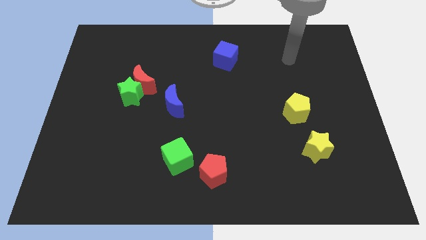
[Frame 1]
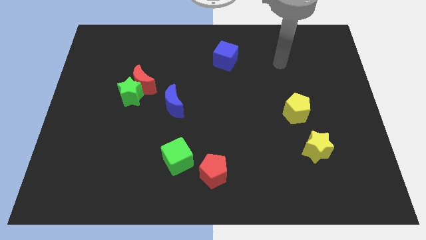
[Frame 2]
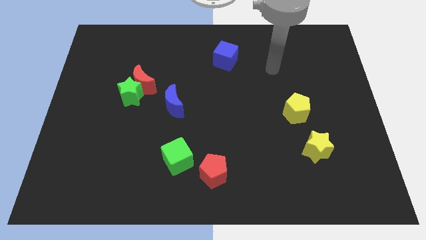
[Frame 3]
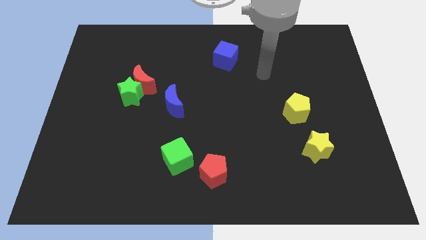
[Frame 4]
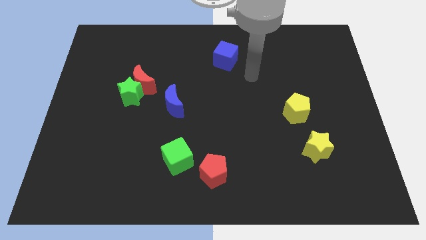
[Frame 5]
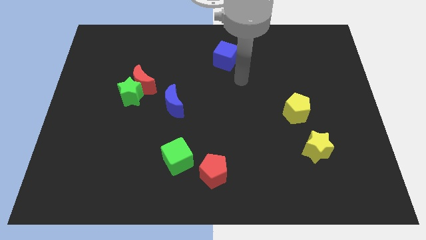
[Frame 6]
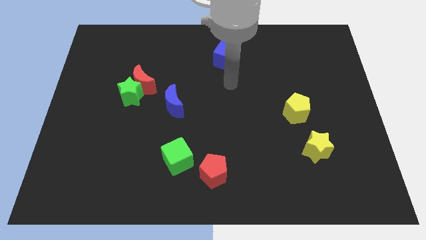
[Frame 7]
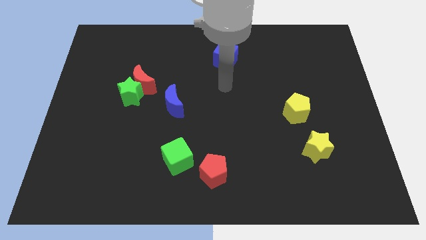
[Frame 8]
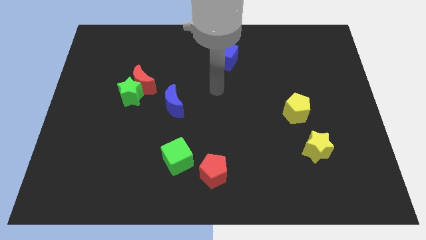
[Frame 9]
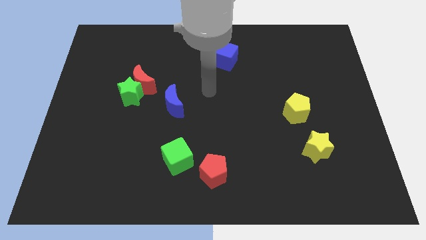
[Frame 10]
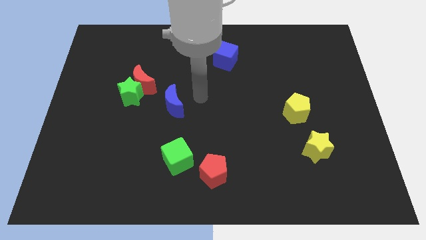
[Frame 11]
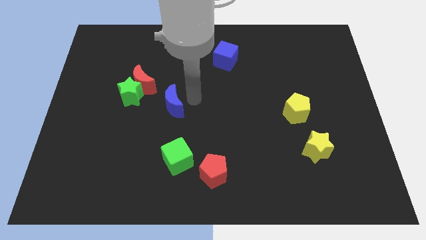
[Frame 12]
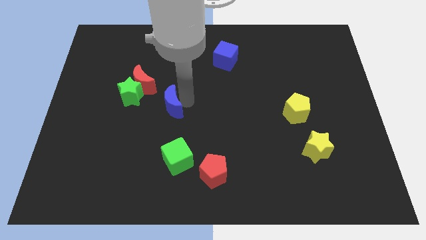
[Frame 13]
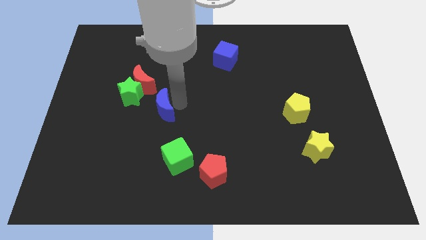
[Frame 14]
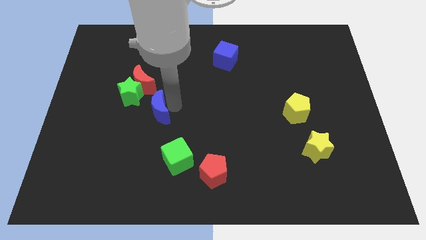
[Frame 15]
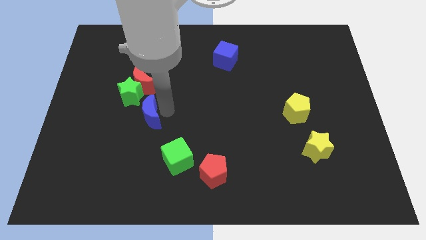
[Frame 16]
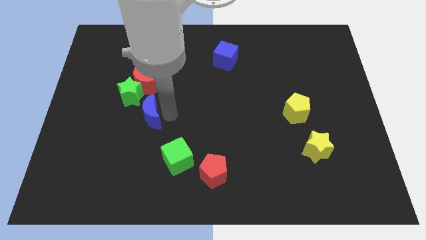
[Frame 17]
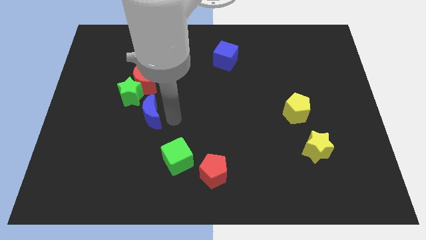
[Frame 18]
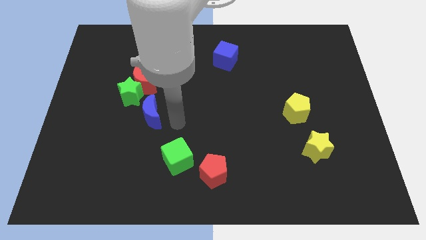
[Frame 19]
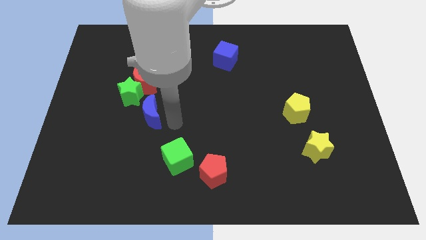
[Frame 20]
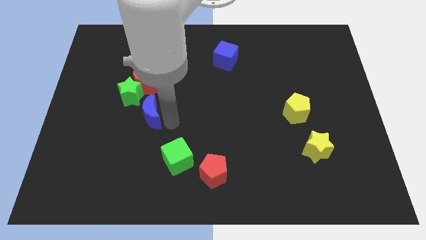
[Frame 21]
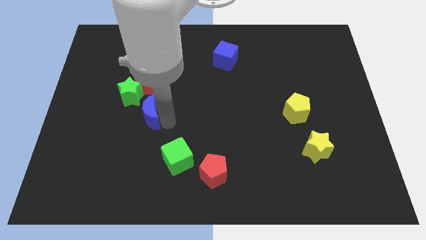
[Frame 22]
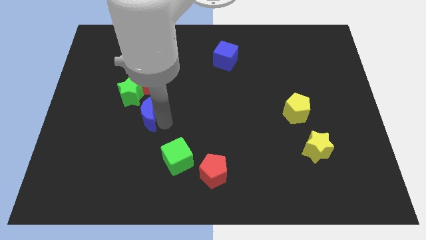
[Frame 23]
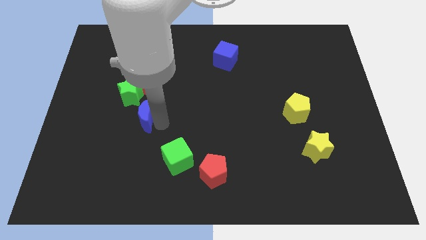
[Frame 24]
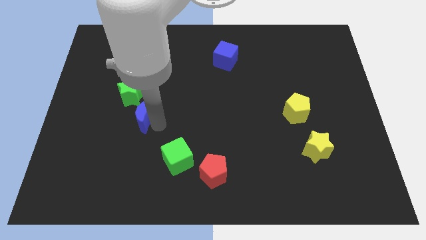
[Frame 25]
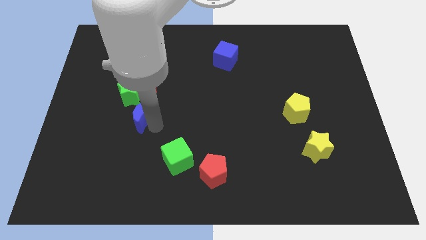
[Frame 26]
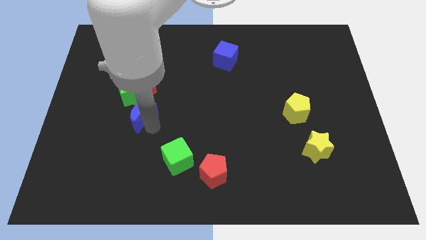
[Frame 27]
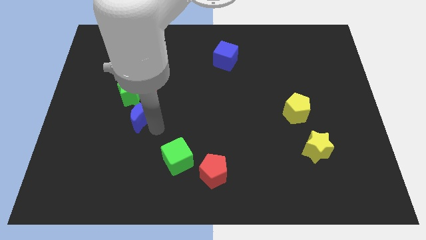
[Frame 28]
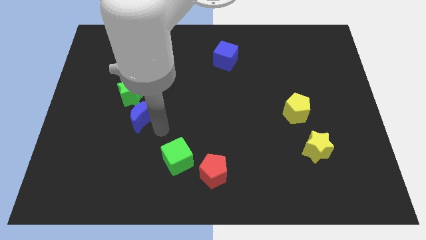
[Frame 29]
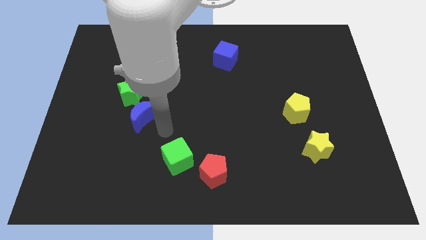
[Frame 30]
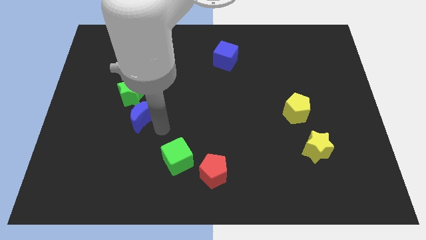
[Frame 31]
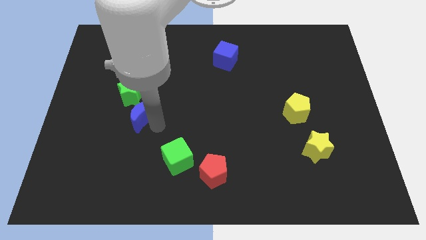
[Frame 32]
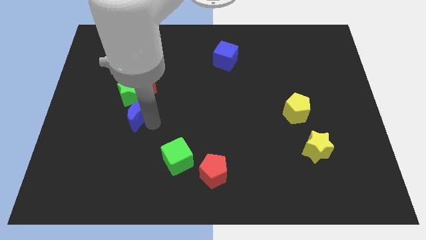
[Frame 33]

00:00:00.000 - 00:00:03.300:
push the blue moon a little left

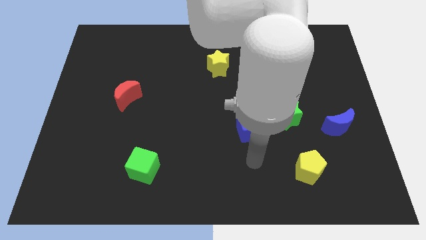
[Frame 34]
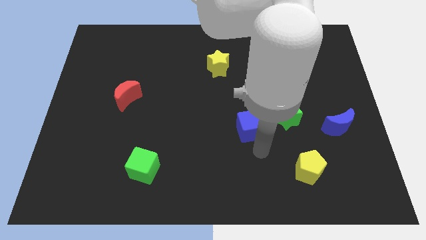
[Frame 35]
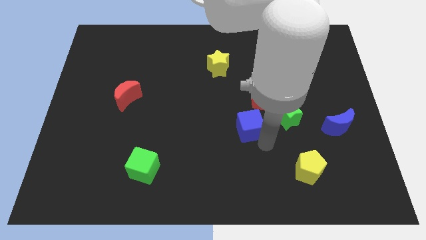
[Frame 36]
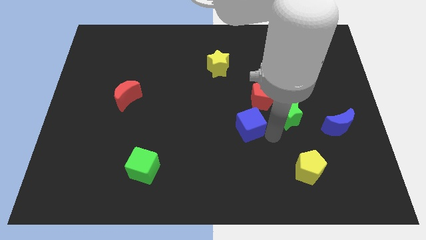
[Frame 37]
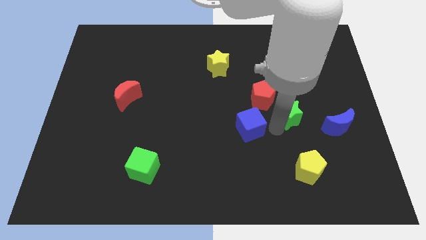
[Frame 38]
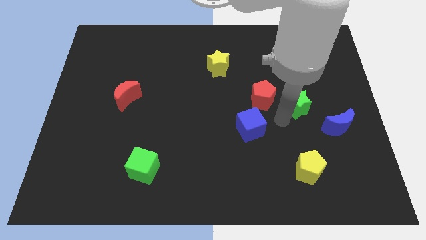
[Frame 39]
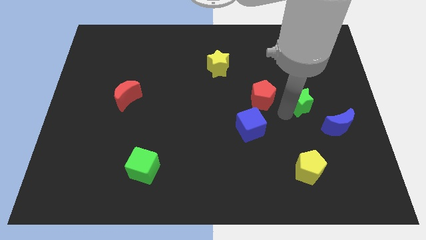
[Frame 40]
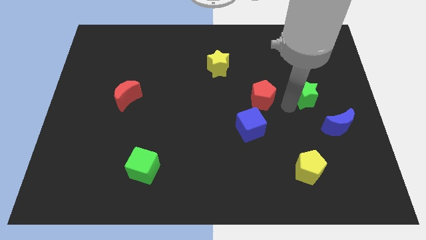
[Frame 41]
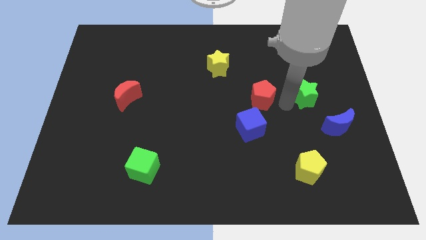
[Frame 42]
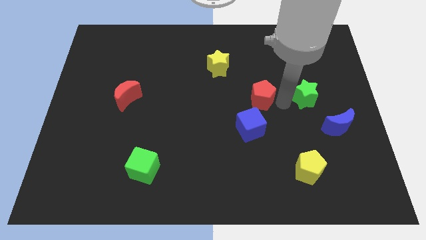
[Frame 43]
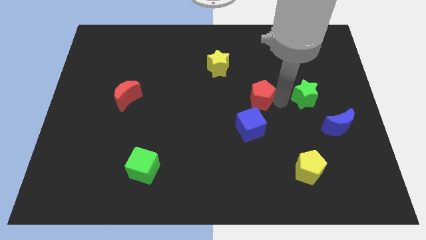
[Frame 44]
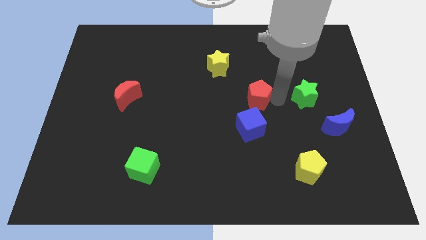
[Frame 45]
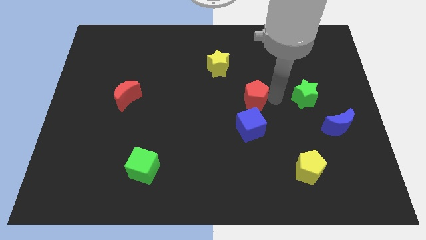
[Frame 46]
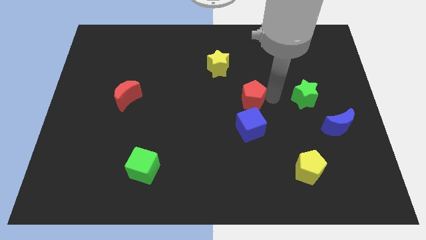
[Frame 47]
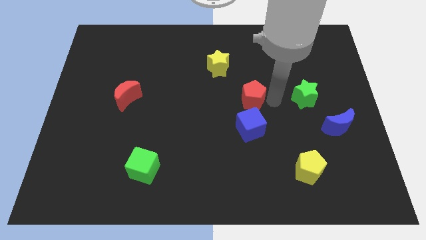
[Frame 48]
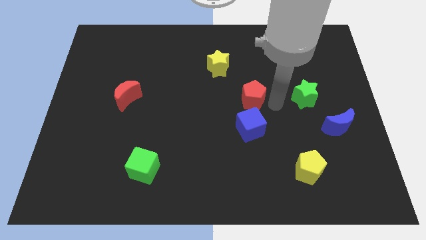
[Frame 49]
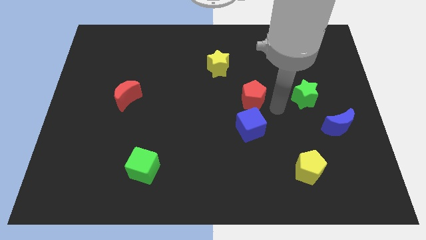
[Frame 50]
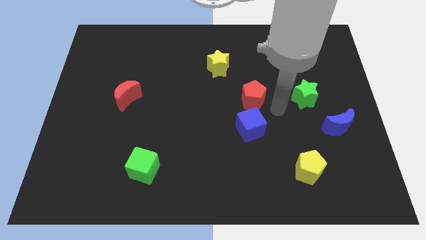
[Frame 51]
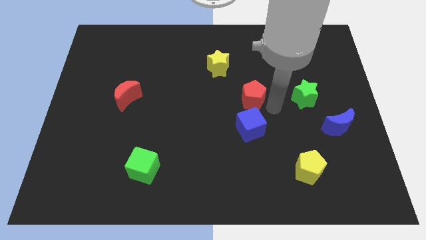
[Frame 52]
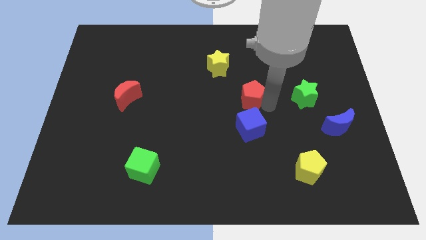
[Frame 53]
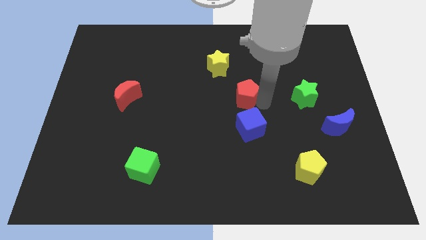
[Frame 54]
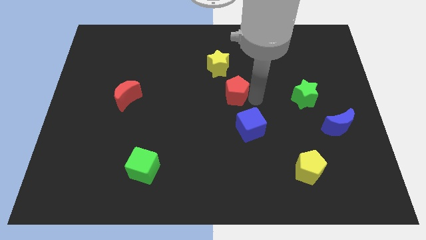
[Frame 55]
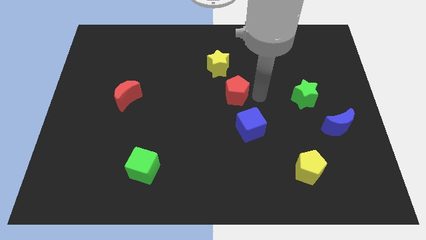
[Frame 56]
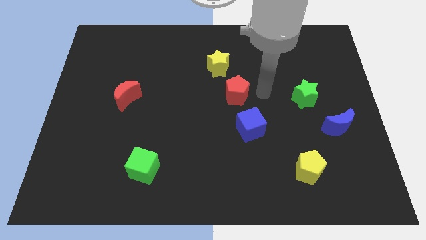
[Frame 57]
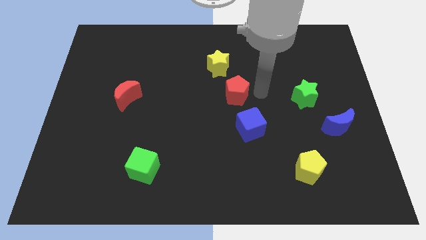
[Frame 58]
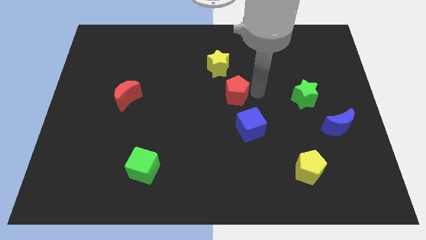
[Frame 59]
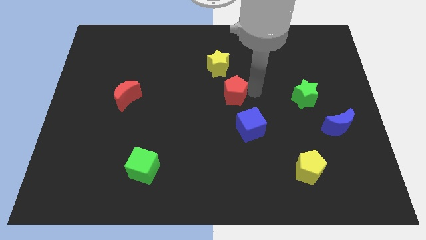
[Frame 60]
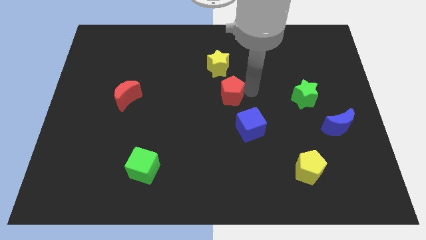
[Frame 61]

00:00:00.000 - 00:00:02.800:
push the red pentagon slightly to the left

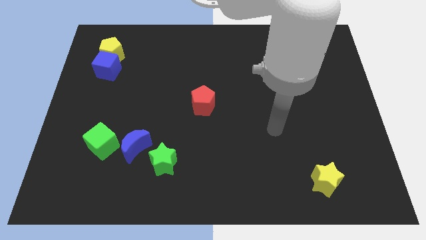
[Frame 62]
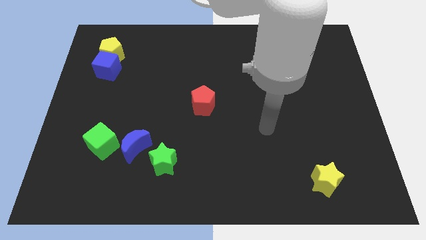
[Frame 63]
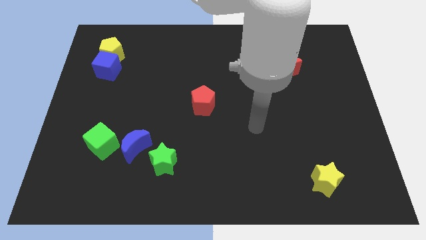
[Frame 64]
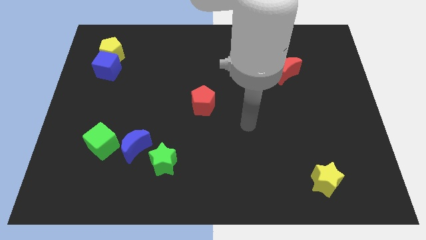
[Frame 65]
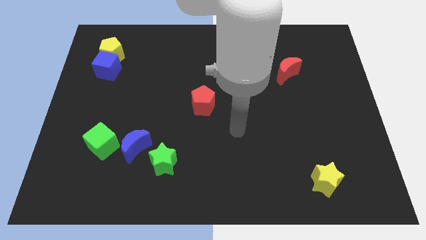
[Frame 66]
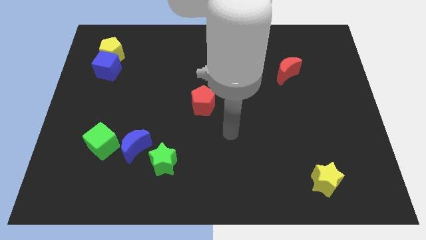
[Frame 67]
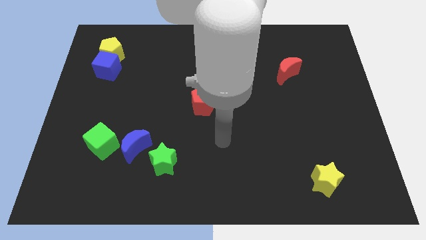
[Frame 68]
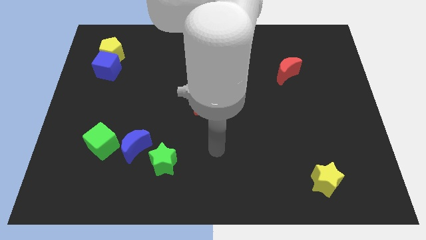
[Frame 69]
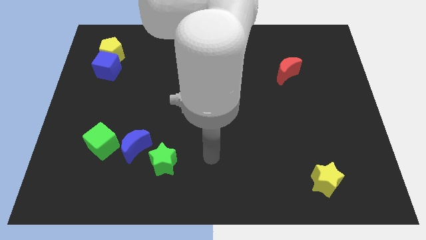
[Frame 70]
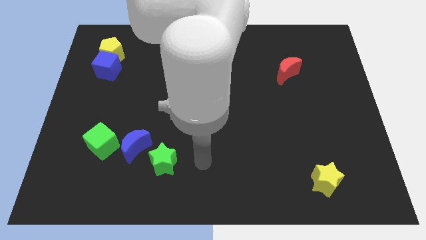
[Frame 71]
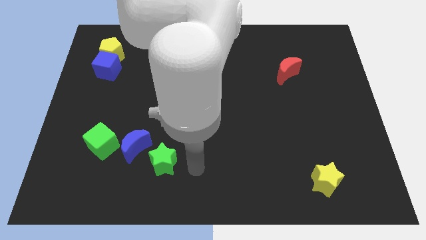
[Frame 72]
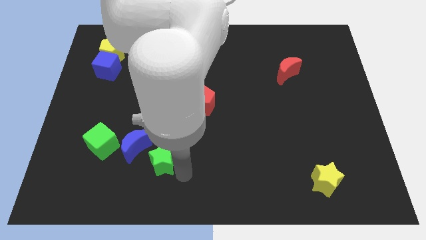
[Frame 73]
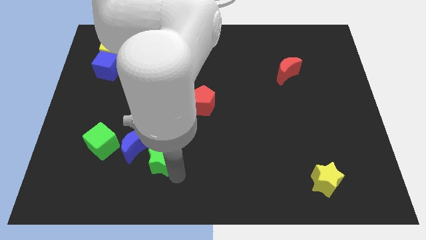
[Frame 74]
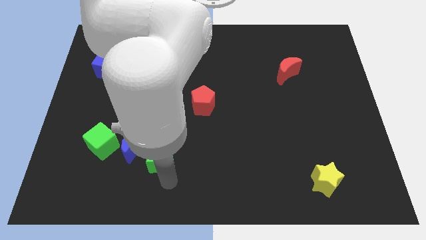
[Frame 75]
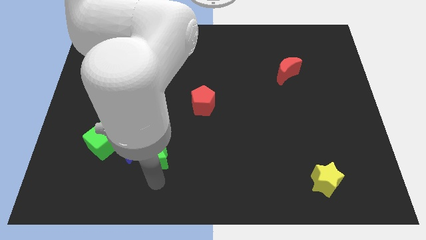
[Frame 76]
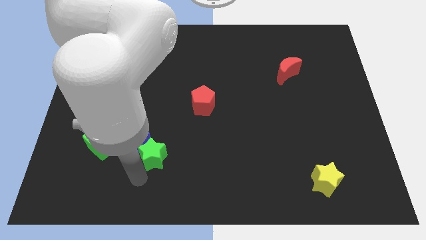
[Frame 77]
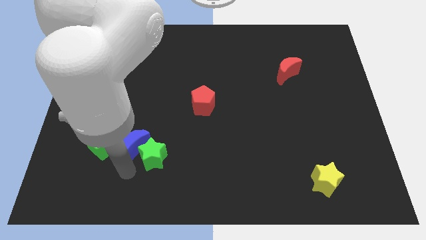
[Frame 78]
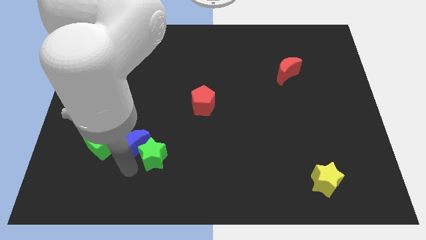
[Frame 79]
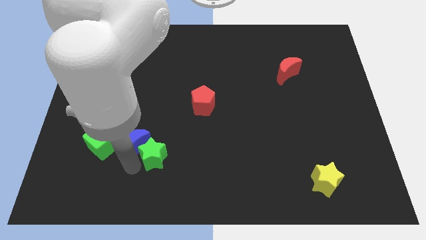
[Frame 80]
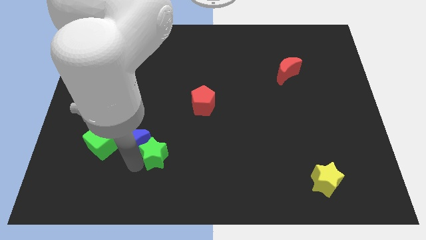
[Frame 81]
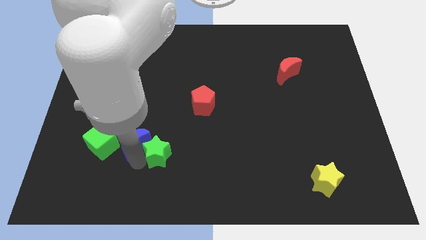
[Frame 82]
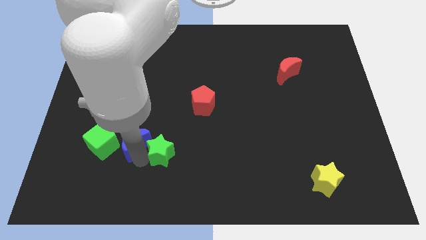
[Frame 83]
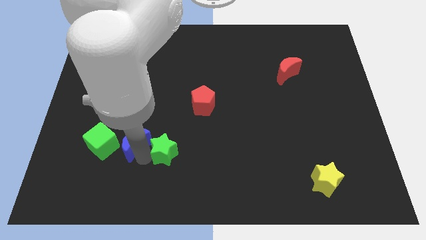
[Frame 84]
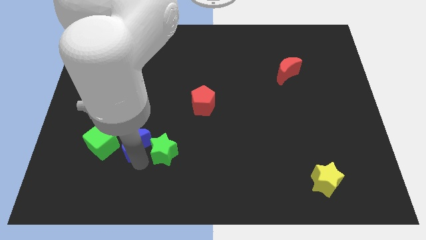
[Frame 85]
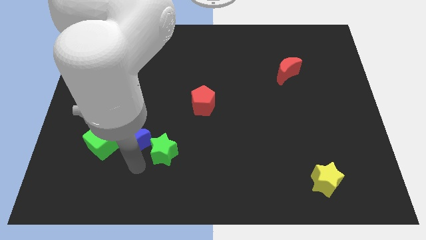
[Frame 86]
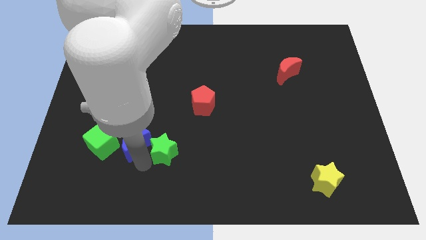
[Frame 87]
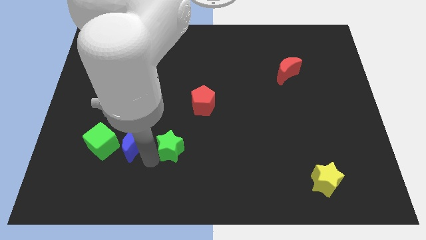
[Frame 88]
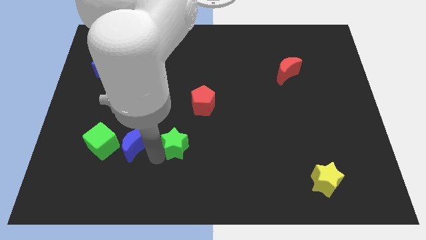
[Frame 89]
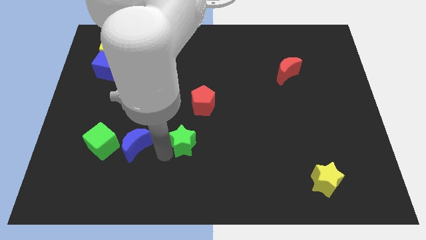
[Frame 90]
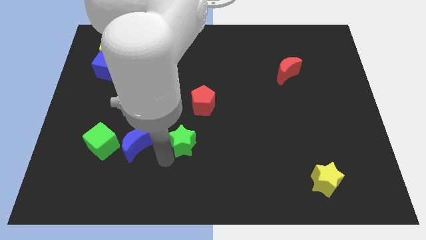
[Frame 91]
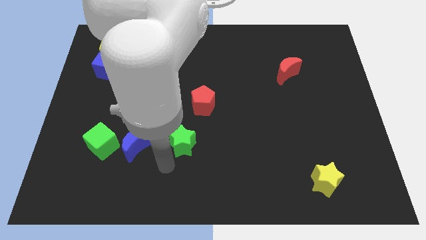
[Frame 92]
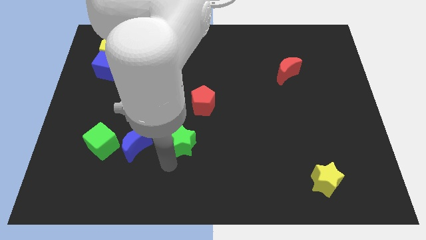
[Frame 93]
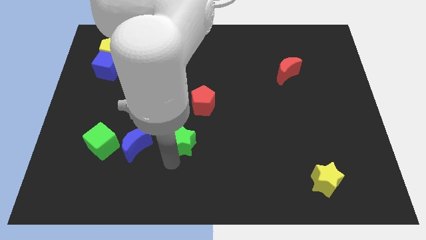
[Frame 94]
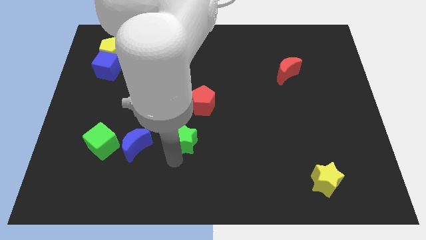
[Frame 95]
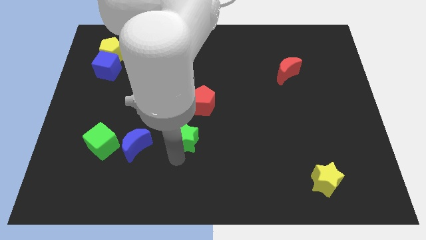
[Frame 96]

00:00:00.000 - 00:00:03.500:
slide the green star up and right diagonally a little
